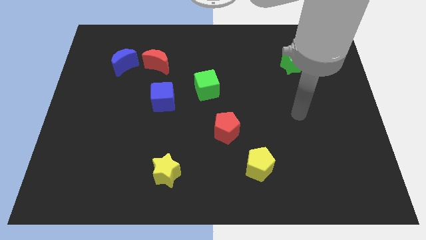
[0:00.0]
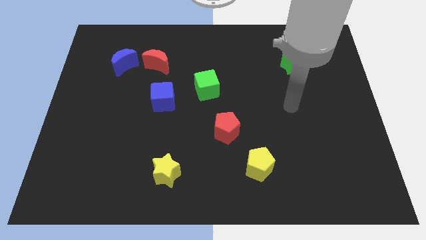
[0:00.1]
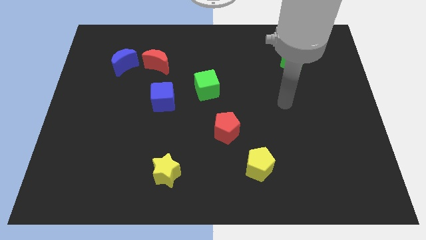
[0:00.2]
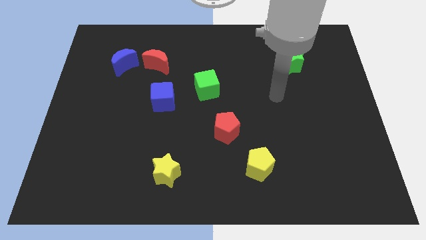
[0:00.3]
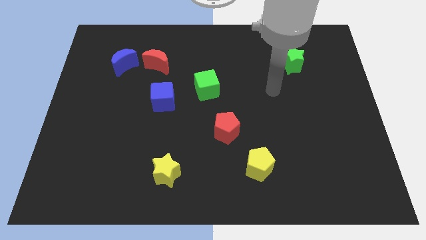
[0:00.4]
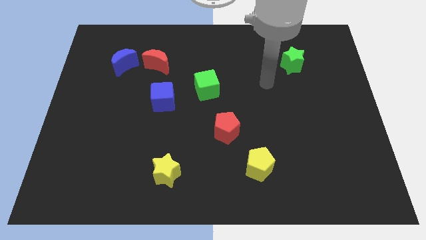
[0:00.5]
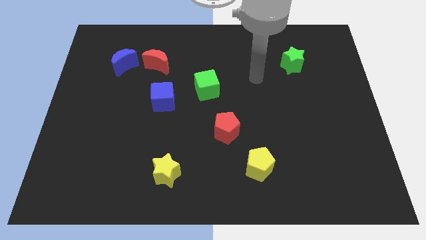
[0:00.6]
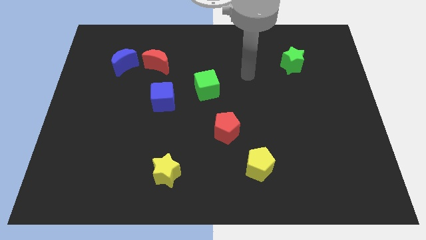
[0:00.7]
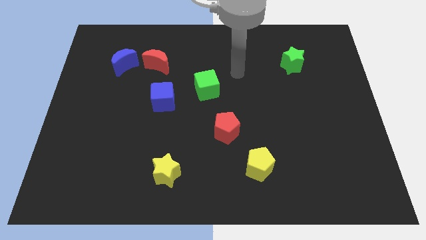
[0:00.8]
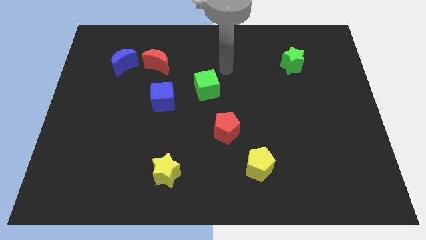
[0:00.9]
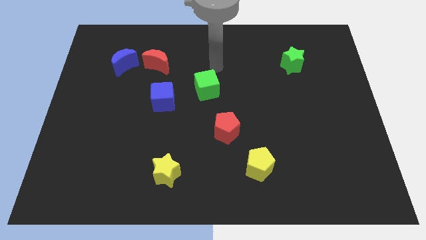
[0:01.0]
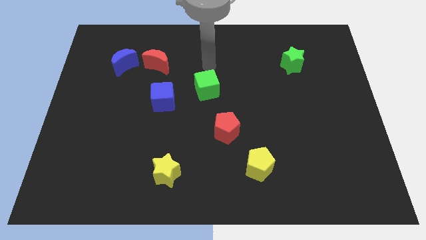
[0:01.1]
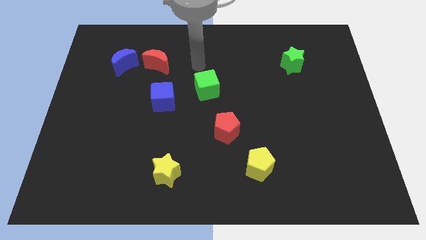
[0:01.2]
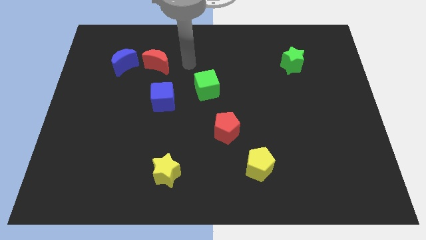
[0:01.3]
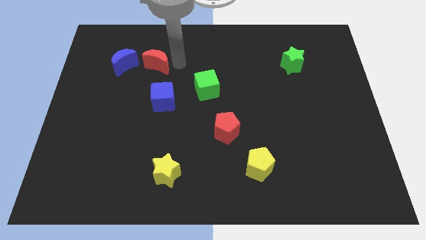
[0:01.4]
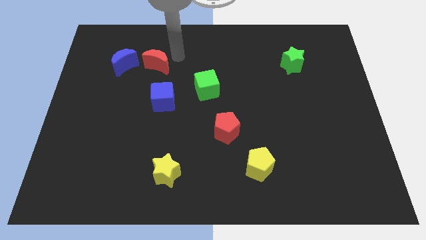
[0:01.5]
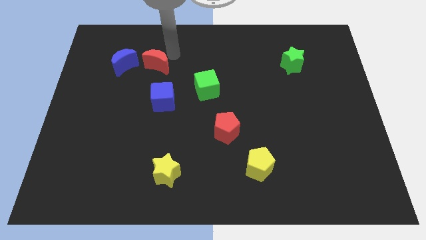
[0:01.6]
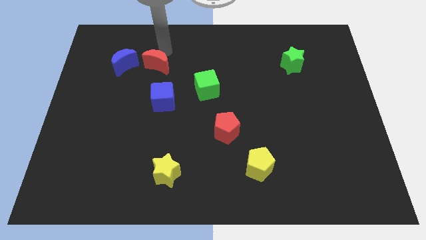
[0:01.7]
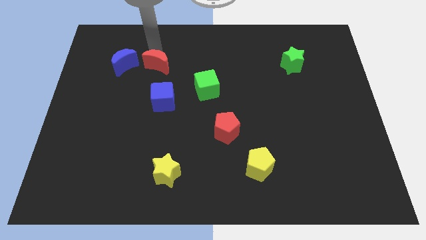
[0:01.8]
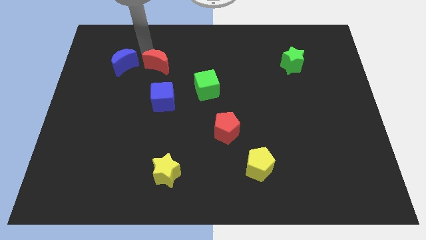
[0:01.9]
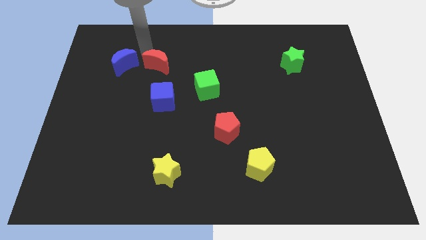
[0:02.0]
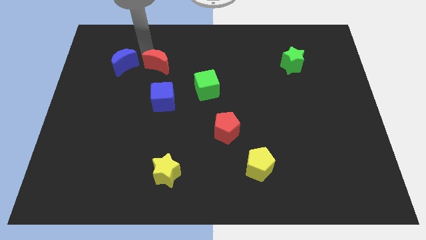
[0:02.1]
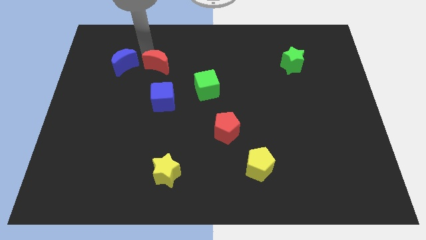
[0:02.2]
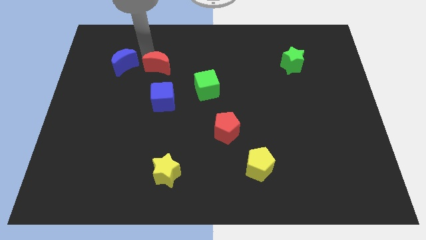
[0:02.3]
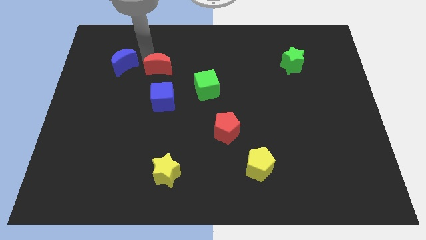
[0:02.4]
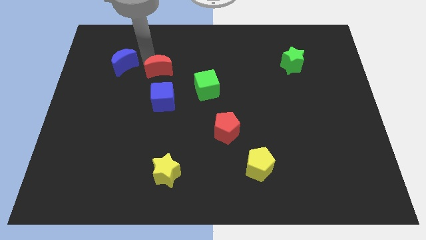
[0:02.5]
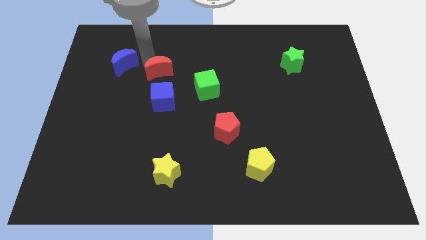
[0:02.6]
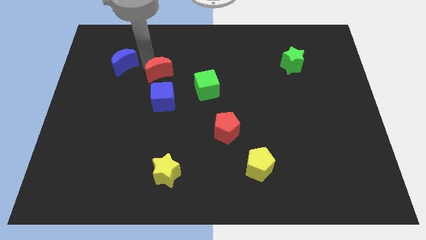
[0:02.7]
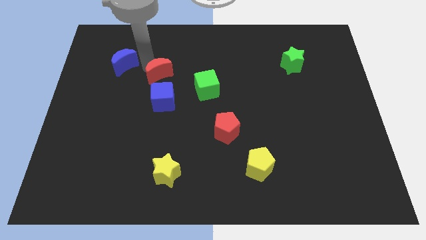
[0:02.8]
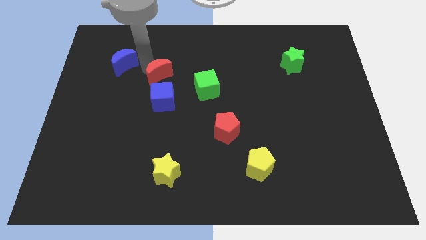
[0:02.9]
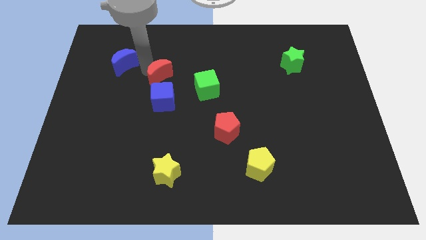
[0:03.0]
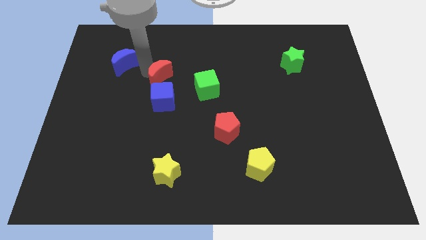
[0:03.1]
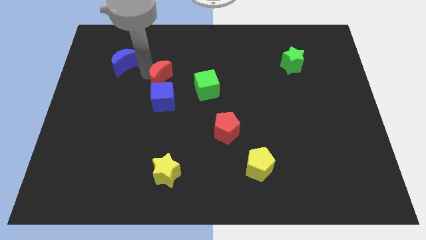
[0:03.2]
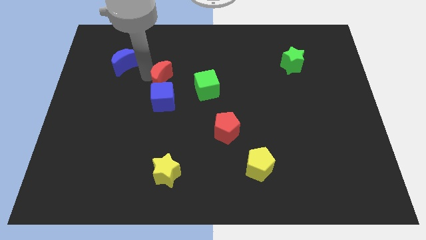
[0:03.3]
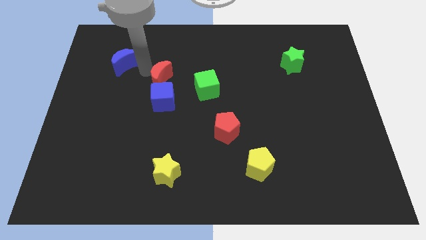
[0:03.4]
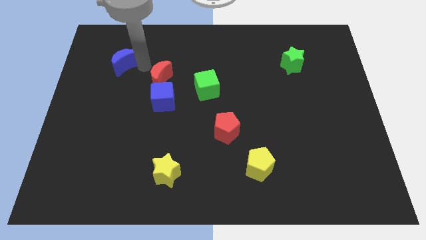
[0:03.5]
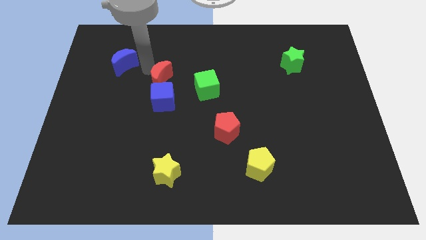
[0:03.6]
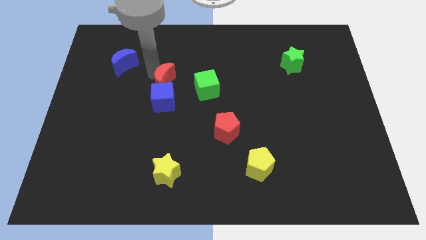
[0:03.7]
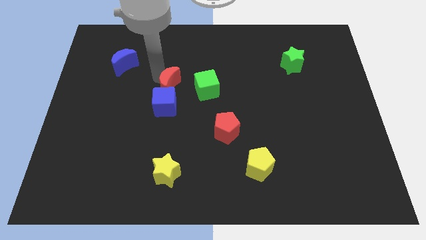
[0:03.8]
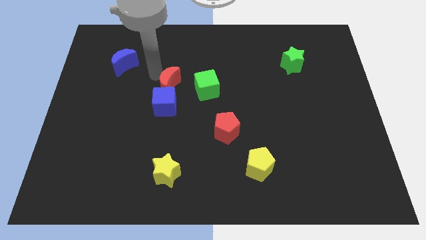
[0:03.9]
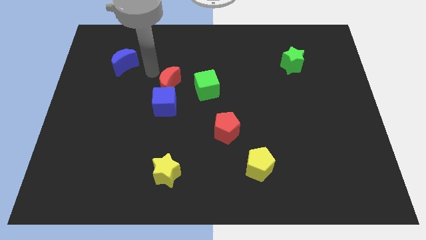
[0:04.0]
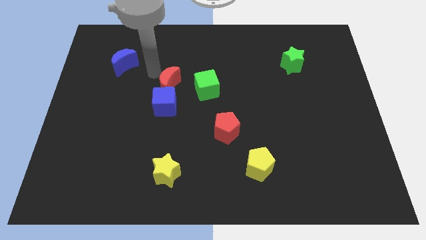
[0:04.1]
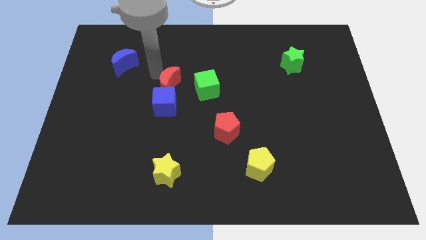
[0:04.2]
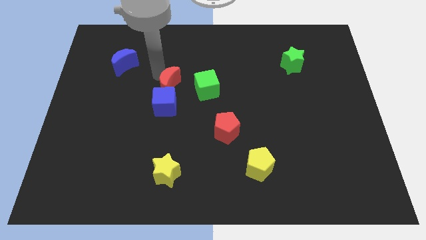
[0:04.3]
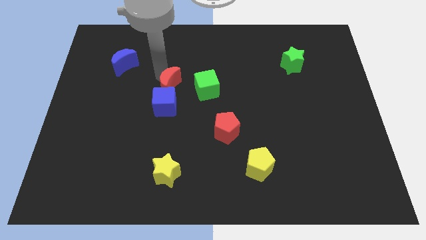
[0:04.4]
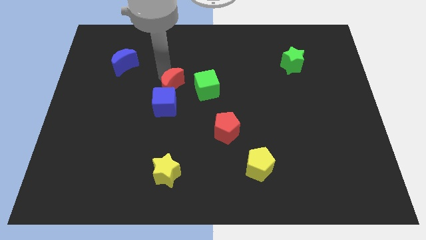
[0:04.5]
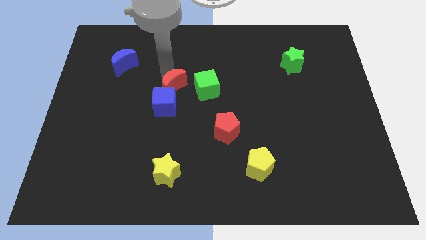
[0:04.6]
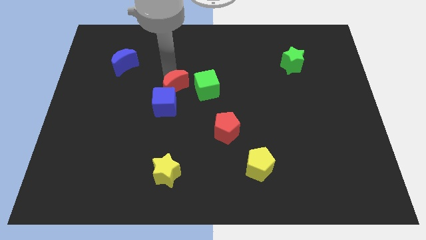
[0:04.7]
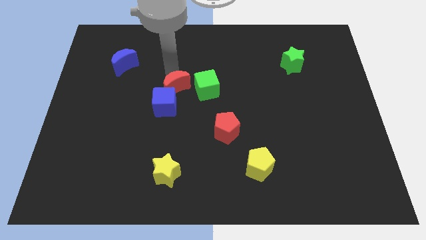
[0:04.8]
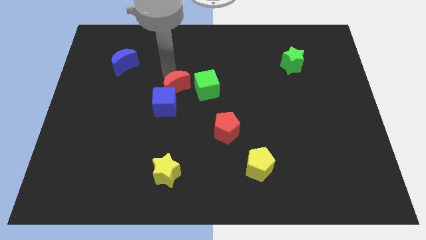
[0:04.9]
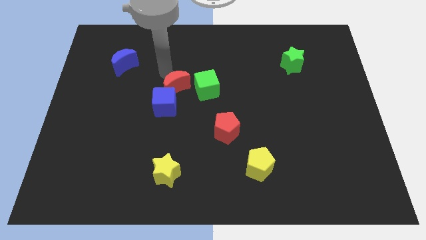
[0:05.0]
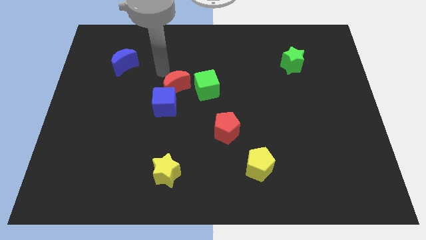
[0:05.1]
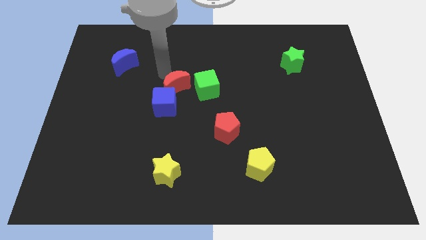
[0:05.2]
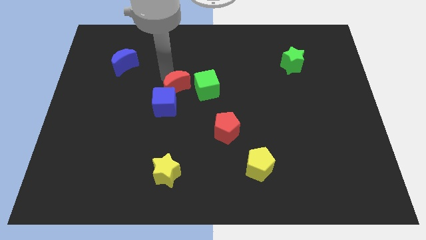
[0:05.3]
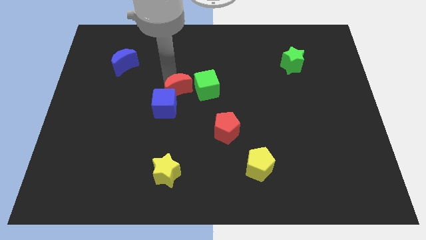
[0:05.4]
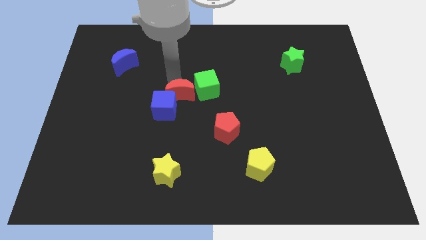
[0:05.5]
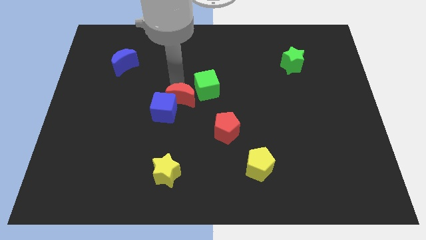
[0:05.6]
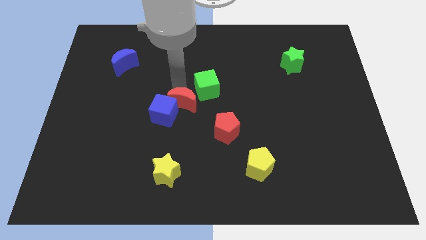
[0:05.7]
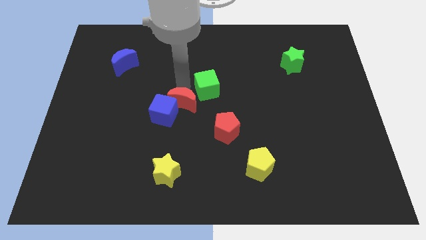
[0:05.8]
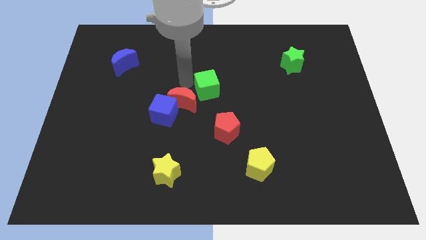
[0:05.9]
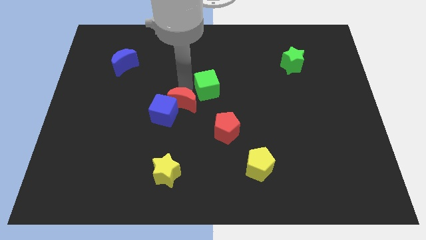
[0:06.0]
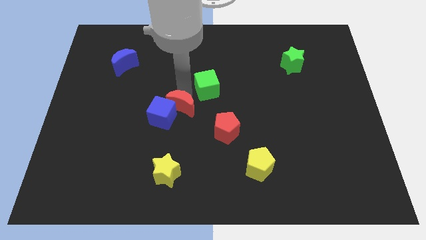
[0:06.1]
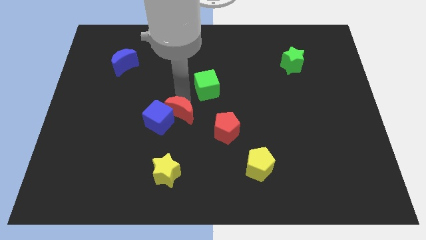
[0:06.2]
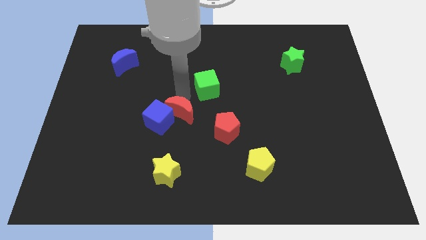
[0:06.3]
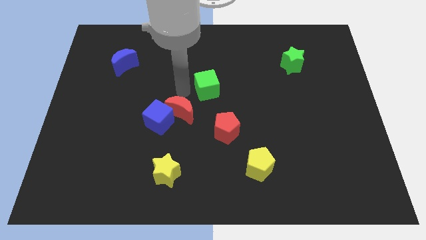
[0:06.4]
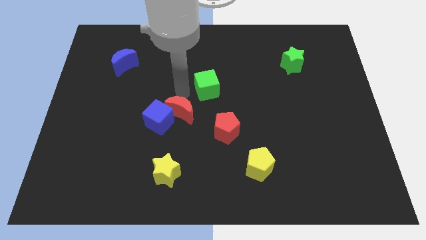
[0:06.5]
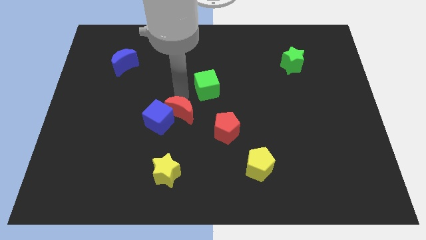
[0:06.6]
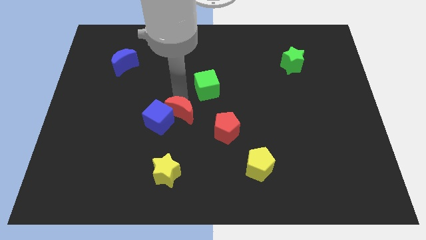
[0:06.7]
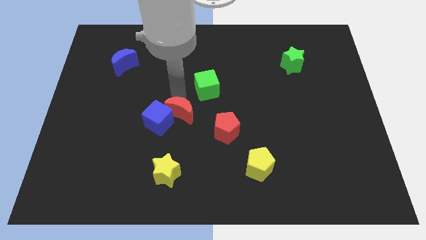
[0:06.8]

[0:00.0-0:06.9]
push the red moon left of the red pentagon
